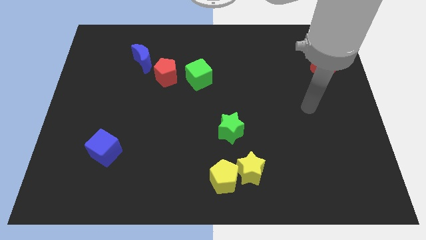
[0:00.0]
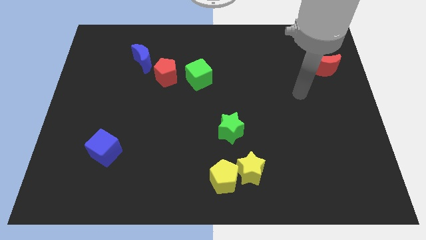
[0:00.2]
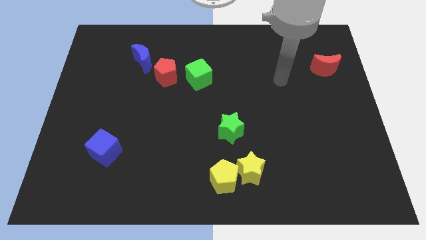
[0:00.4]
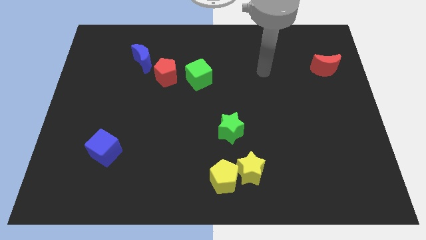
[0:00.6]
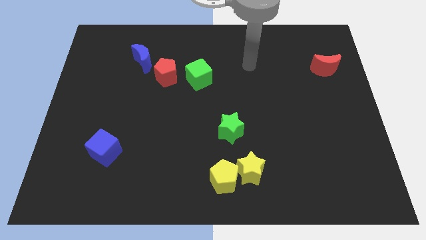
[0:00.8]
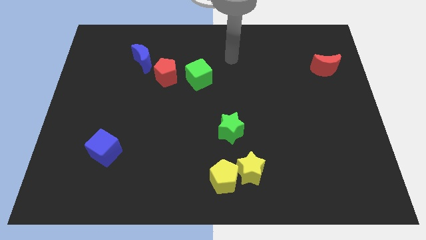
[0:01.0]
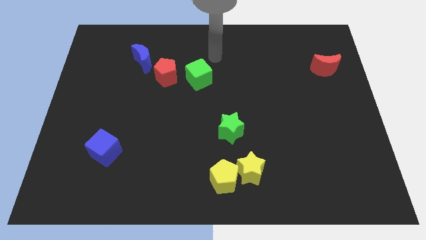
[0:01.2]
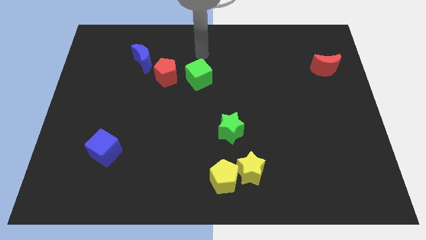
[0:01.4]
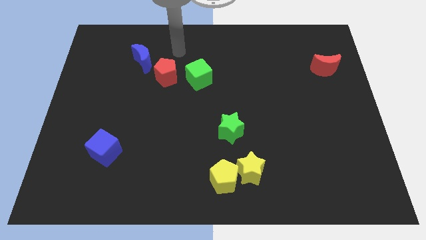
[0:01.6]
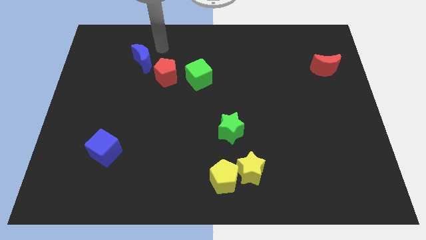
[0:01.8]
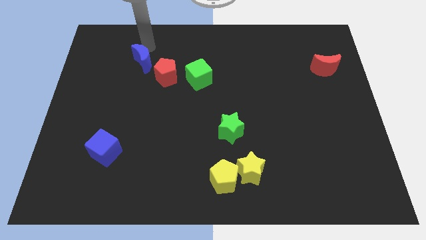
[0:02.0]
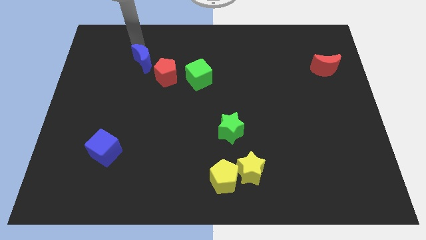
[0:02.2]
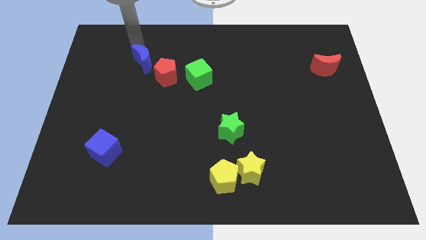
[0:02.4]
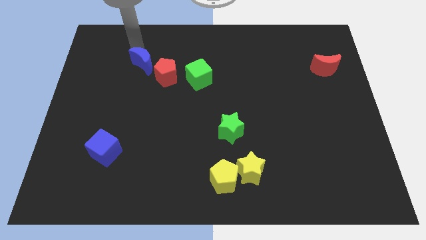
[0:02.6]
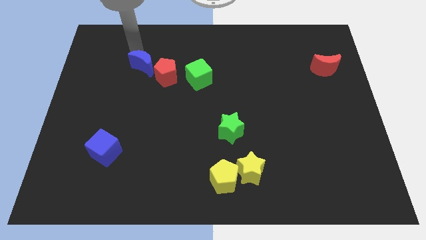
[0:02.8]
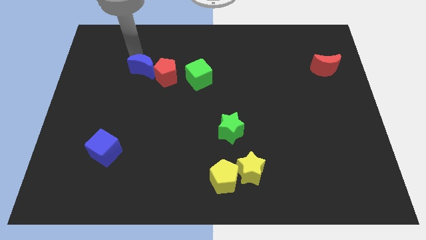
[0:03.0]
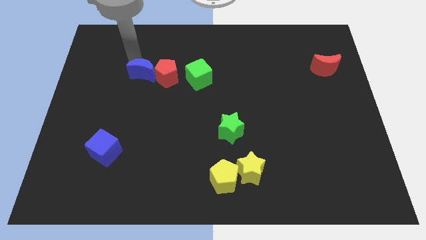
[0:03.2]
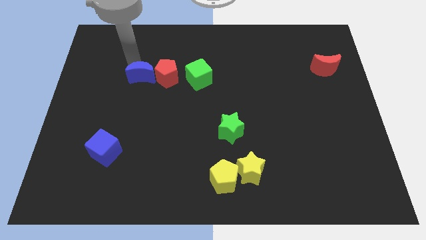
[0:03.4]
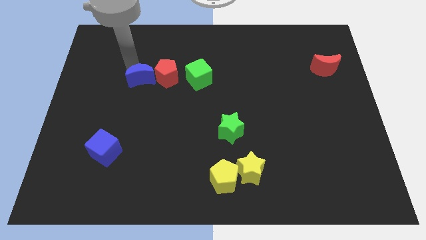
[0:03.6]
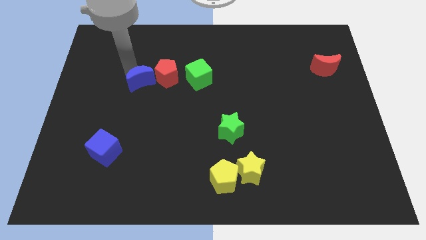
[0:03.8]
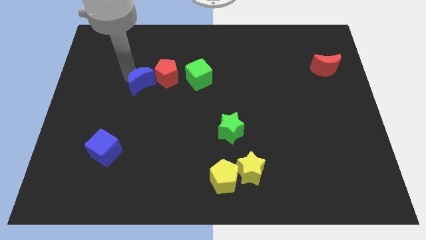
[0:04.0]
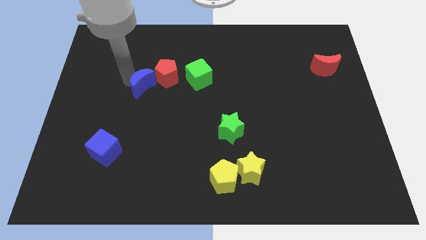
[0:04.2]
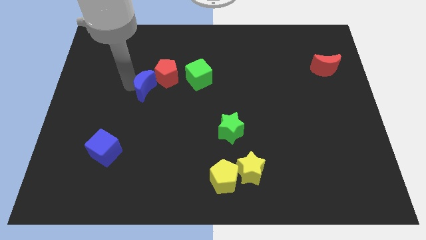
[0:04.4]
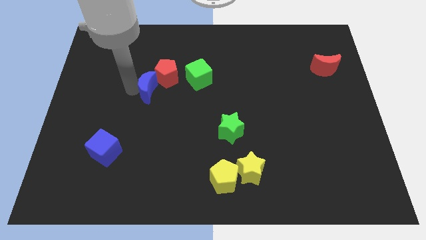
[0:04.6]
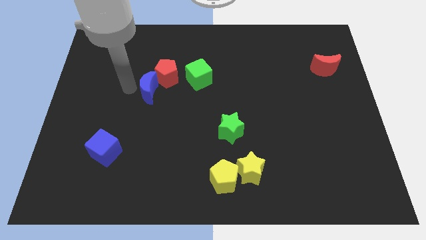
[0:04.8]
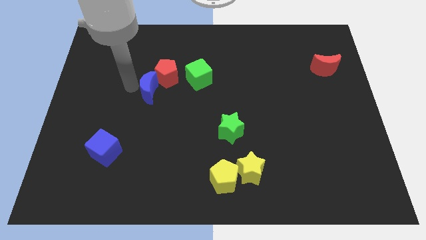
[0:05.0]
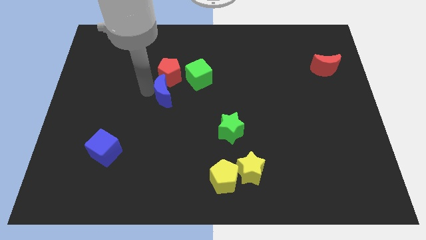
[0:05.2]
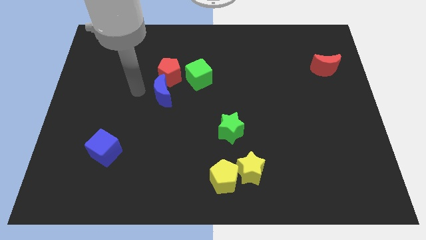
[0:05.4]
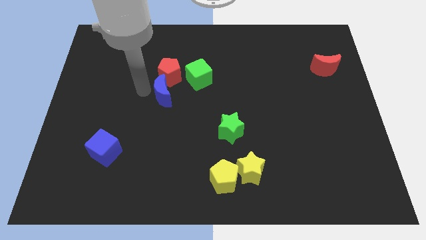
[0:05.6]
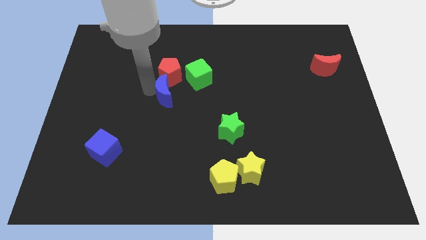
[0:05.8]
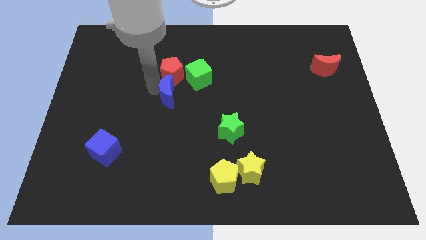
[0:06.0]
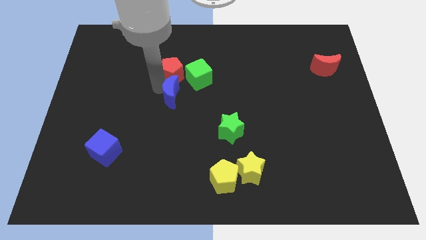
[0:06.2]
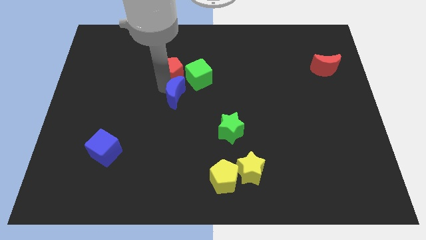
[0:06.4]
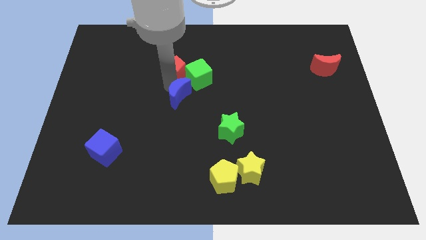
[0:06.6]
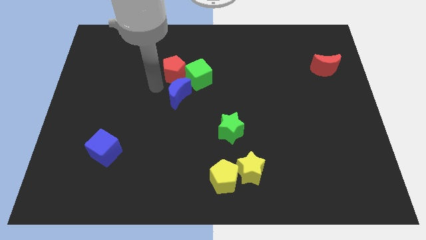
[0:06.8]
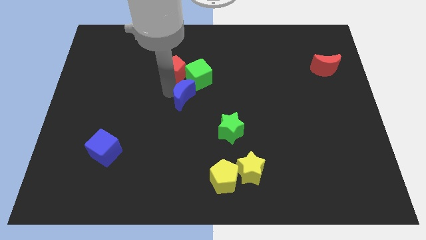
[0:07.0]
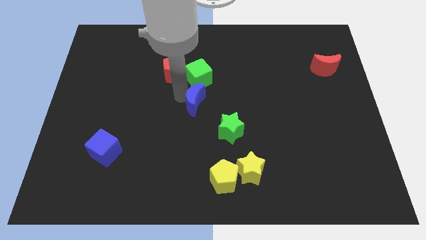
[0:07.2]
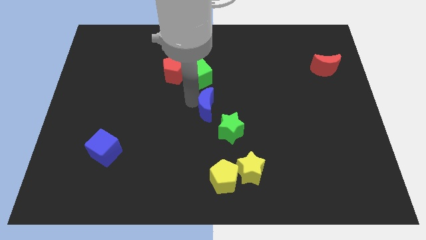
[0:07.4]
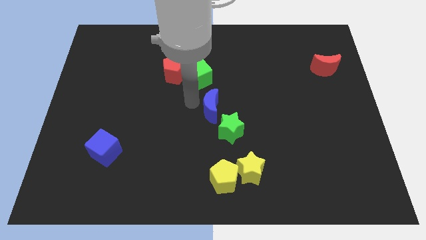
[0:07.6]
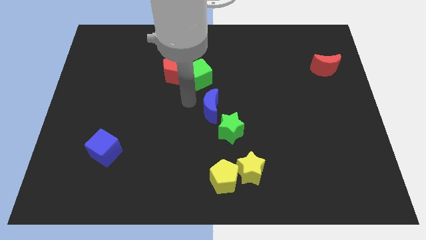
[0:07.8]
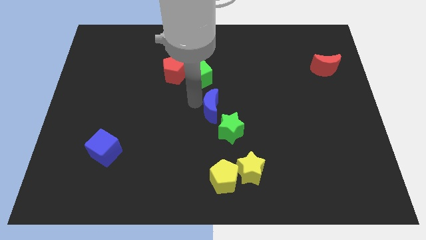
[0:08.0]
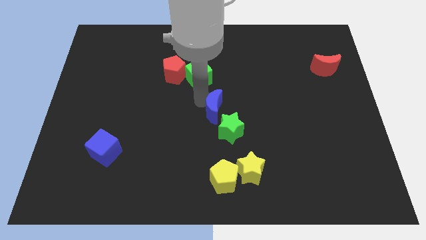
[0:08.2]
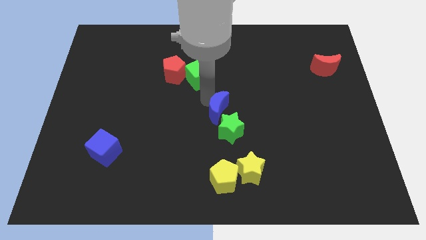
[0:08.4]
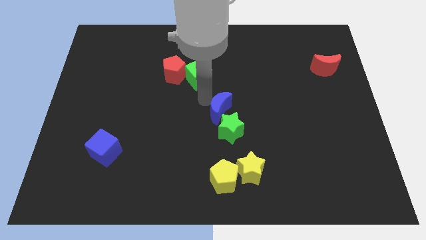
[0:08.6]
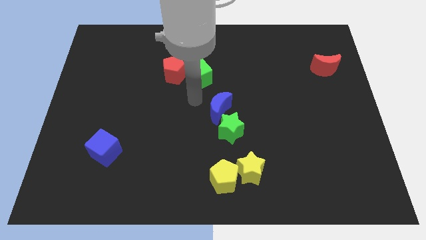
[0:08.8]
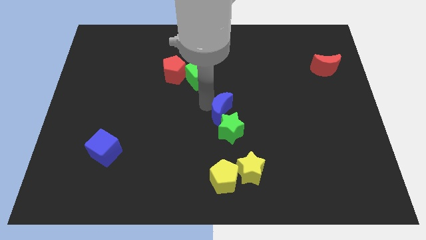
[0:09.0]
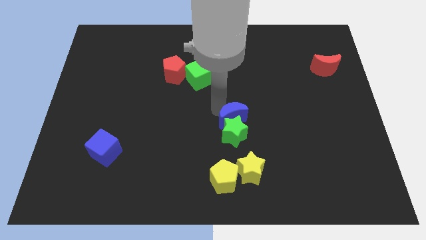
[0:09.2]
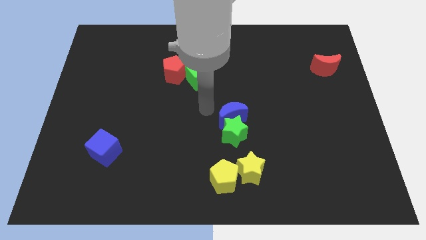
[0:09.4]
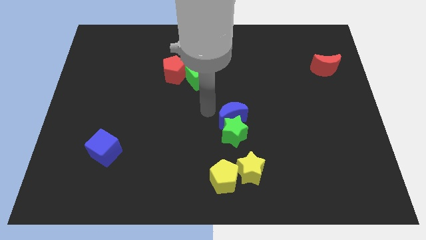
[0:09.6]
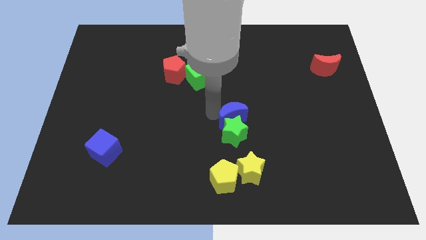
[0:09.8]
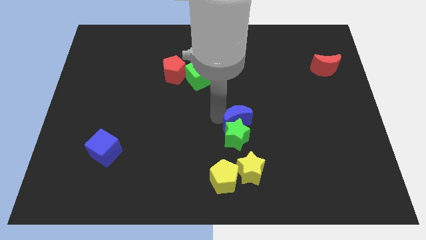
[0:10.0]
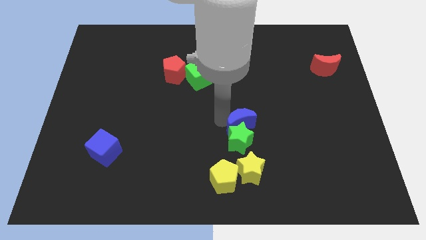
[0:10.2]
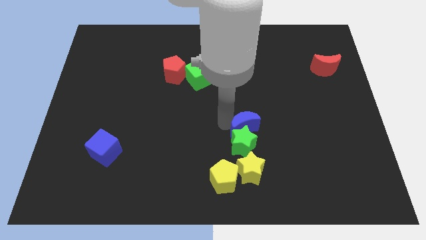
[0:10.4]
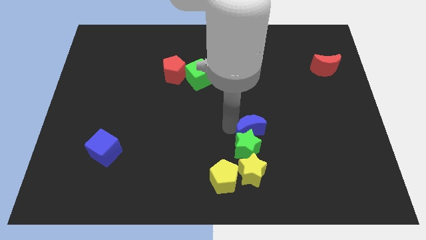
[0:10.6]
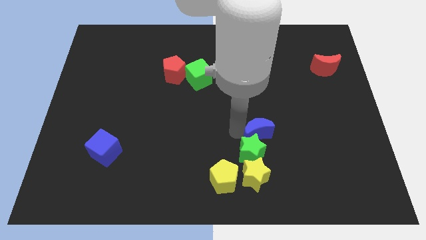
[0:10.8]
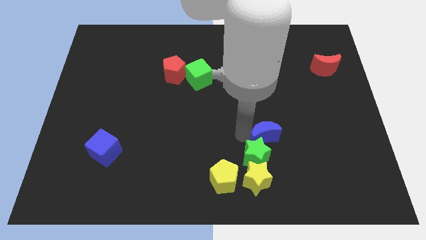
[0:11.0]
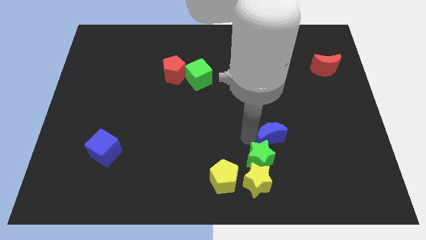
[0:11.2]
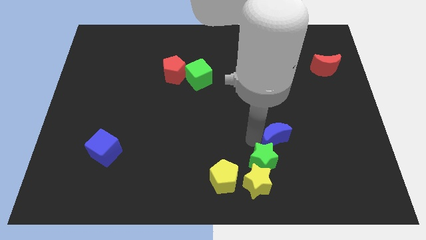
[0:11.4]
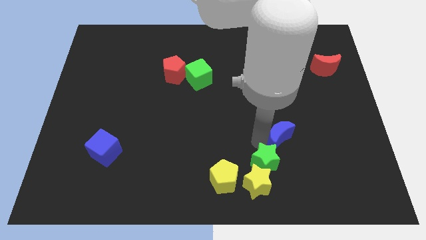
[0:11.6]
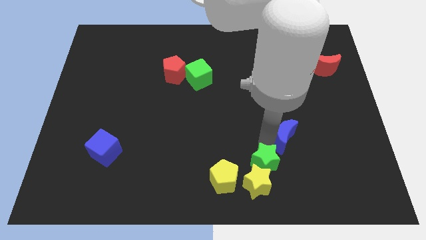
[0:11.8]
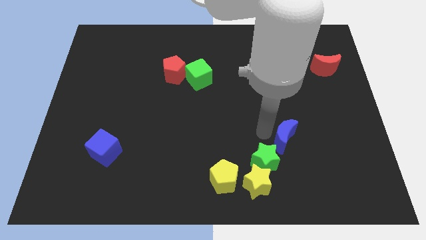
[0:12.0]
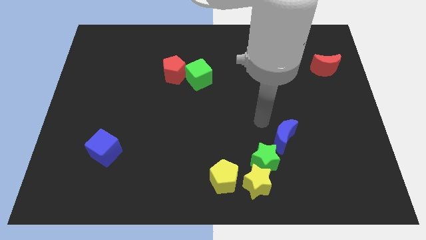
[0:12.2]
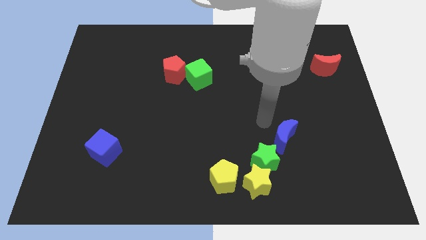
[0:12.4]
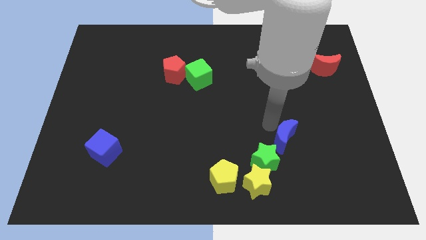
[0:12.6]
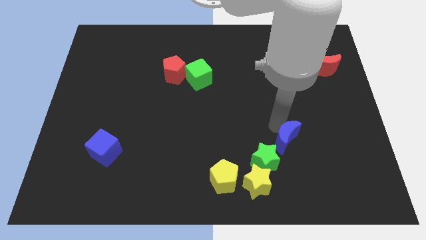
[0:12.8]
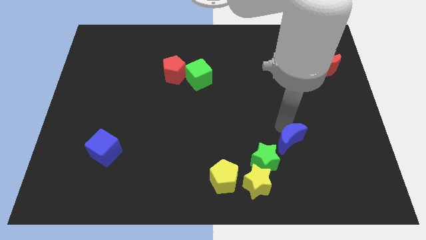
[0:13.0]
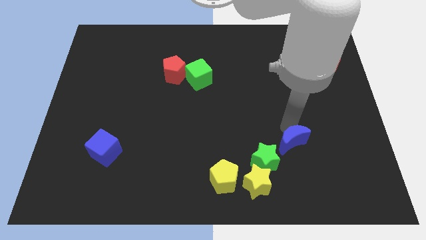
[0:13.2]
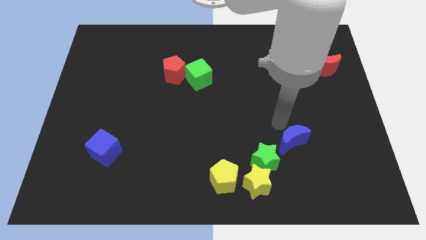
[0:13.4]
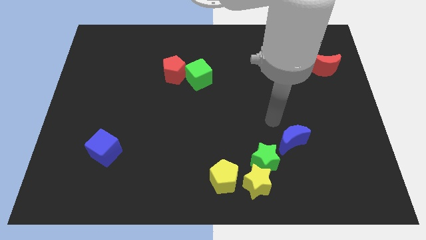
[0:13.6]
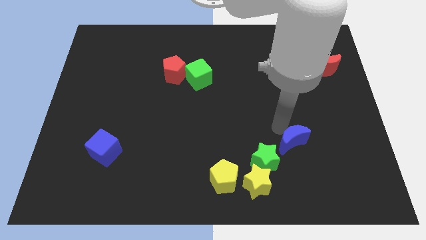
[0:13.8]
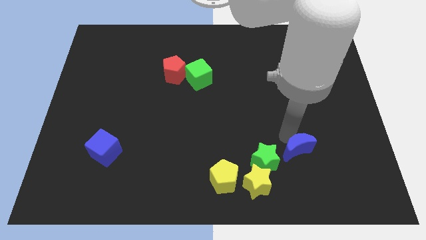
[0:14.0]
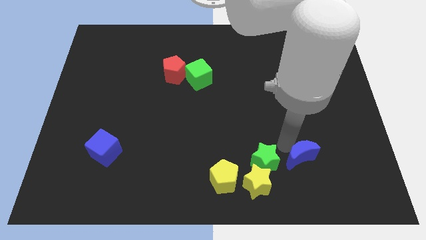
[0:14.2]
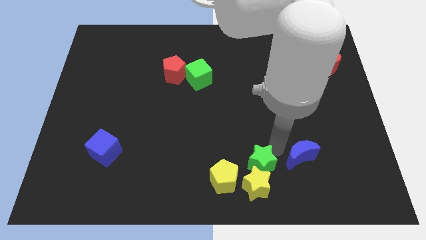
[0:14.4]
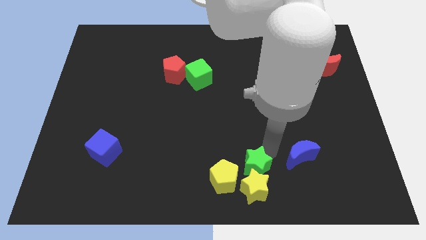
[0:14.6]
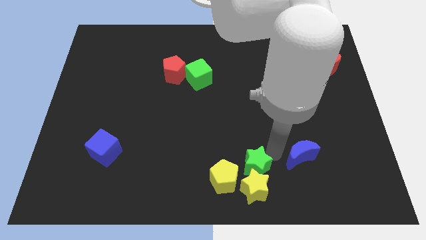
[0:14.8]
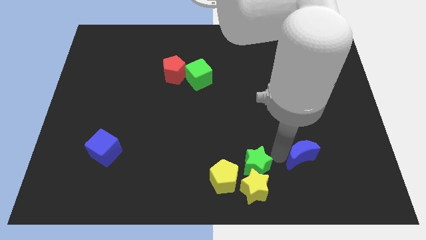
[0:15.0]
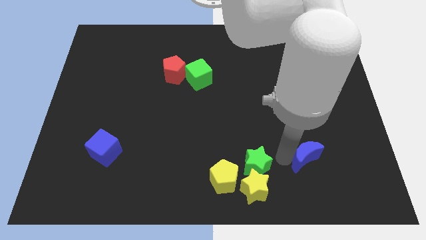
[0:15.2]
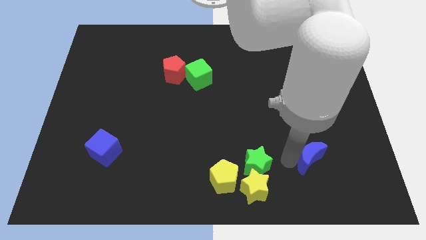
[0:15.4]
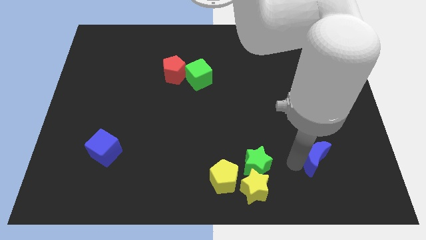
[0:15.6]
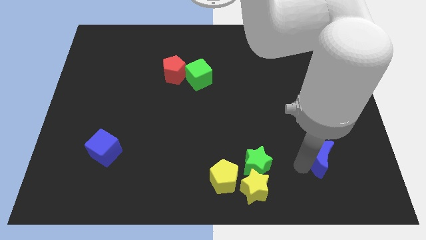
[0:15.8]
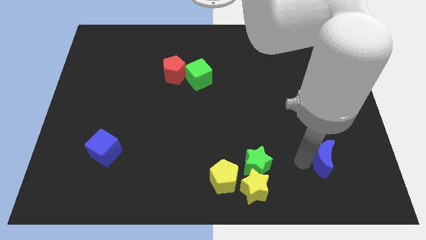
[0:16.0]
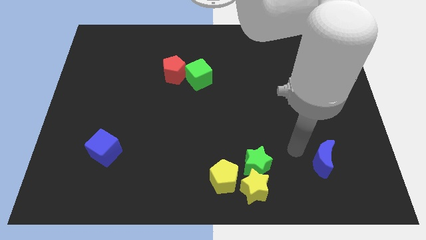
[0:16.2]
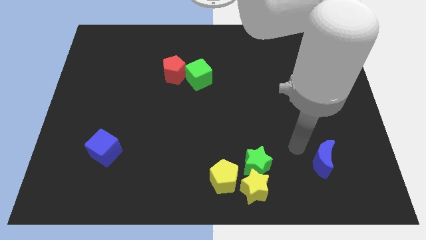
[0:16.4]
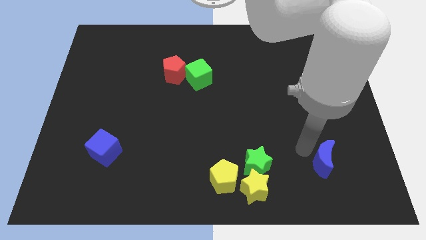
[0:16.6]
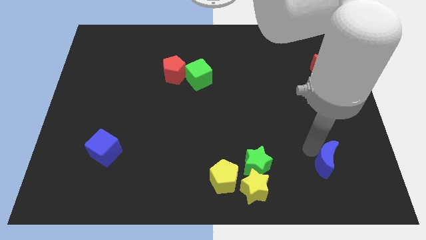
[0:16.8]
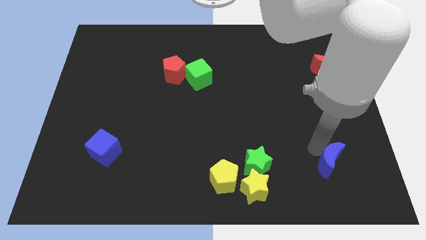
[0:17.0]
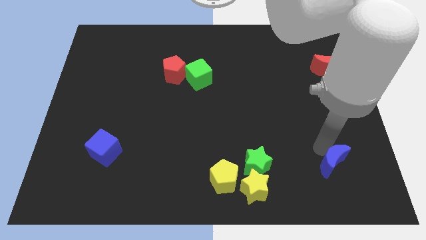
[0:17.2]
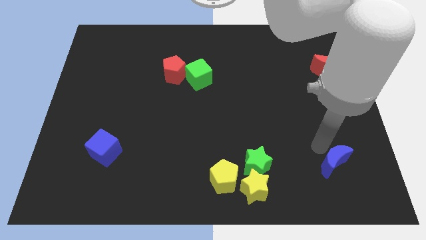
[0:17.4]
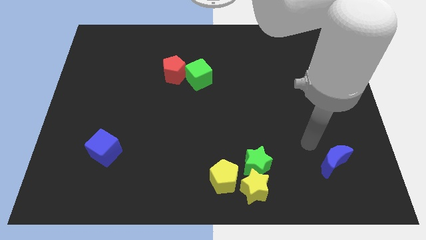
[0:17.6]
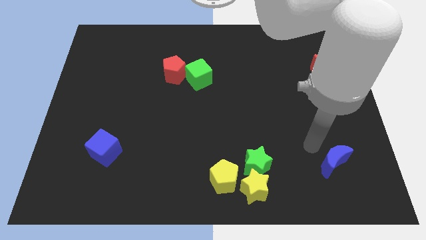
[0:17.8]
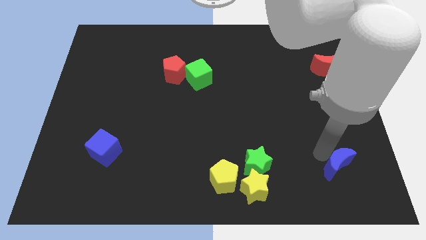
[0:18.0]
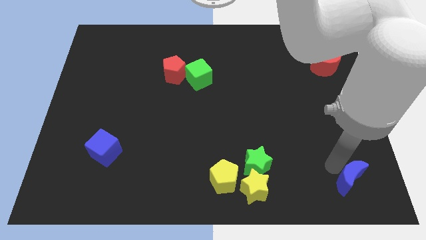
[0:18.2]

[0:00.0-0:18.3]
push the blue moon to the bottom right of the board
